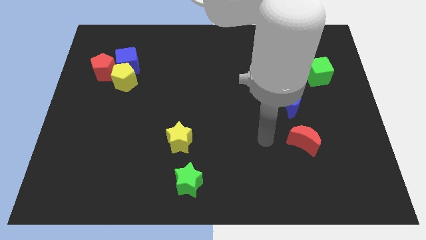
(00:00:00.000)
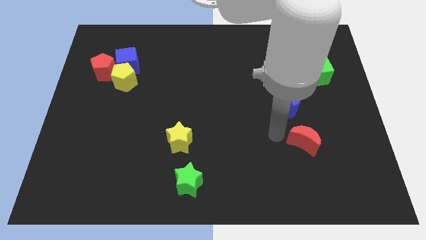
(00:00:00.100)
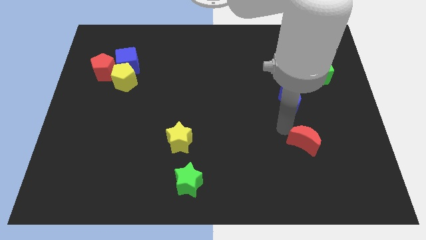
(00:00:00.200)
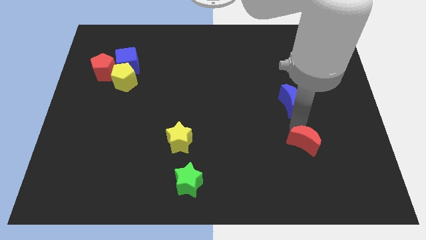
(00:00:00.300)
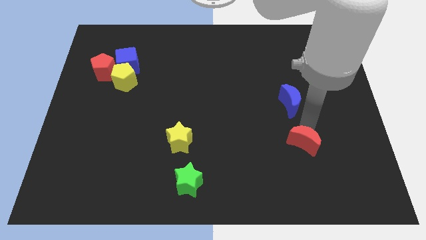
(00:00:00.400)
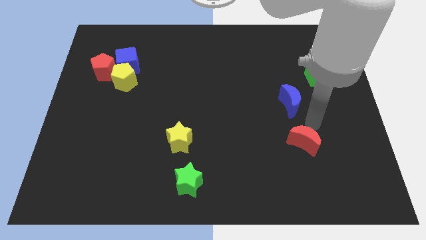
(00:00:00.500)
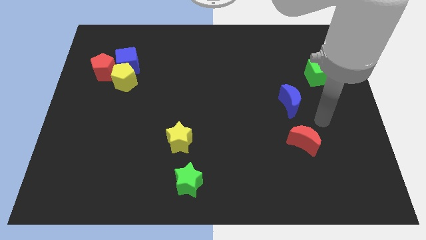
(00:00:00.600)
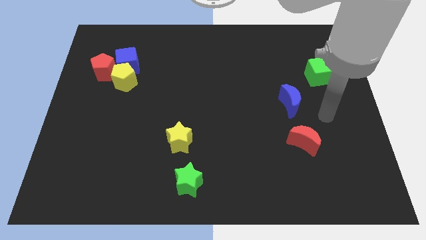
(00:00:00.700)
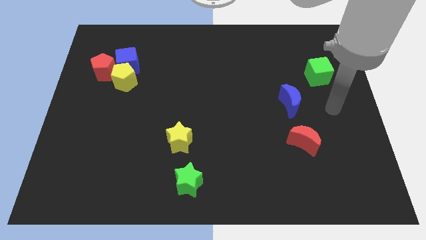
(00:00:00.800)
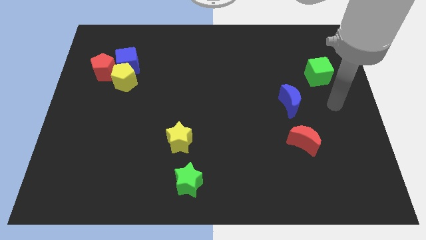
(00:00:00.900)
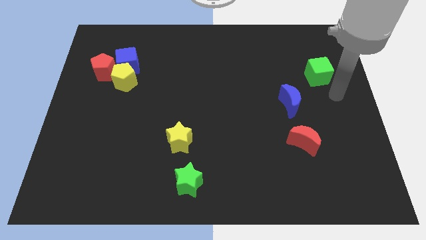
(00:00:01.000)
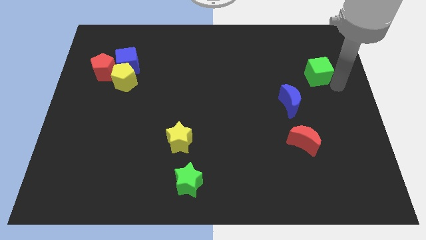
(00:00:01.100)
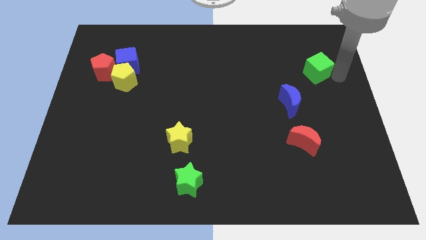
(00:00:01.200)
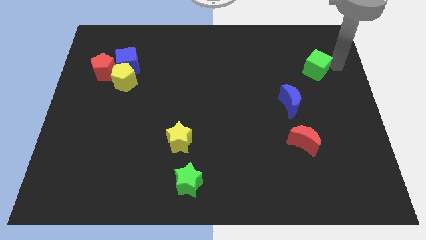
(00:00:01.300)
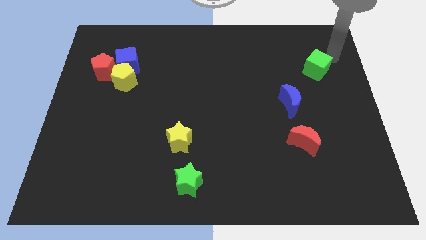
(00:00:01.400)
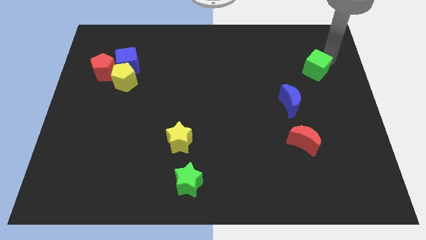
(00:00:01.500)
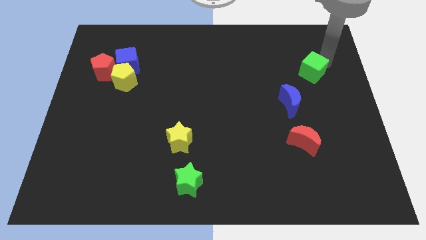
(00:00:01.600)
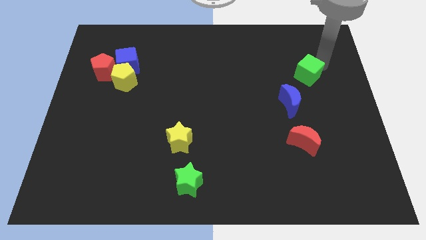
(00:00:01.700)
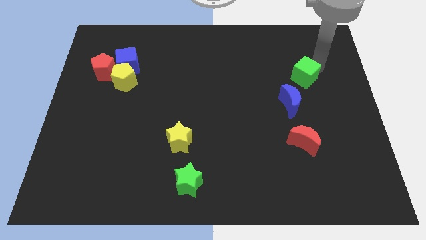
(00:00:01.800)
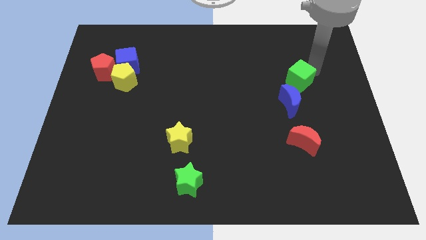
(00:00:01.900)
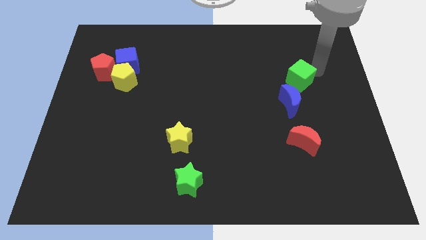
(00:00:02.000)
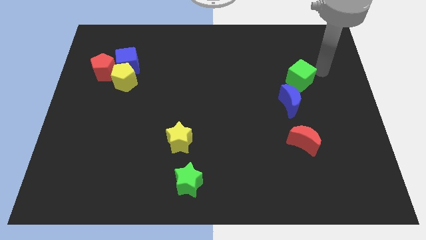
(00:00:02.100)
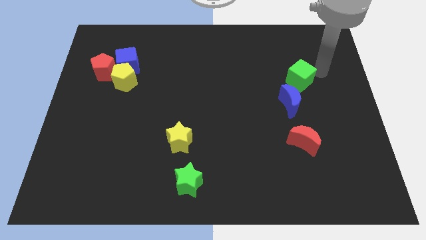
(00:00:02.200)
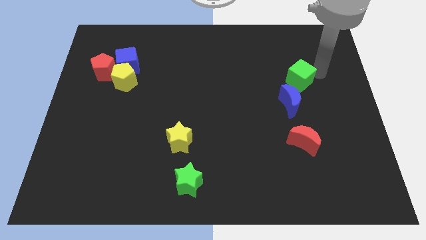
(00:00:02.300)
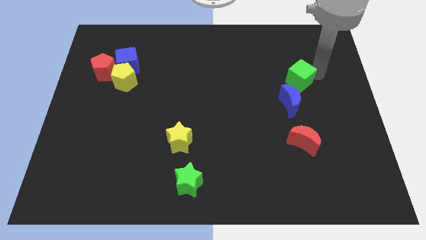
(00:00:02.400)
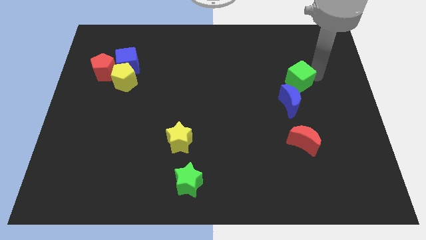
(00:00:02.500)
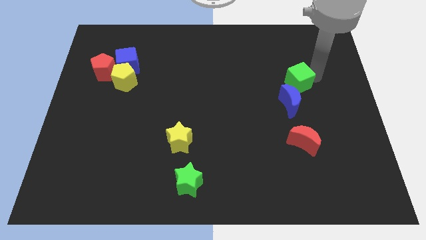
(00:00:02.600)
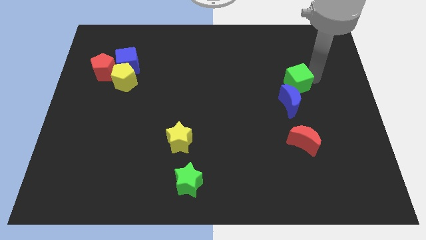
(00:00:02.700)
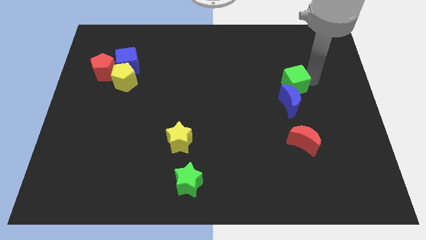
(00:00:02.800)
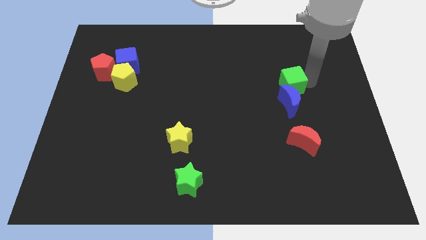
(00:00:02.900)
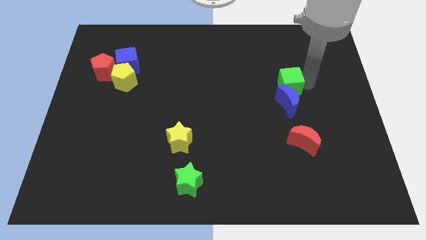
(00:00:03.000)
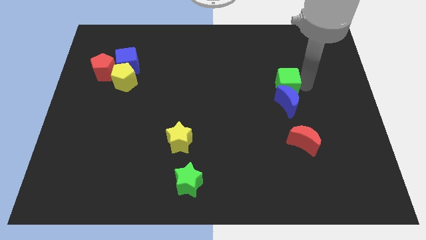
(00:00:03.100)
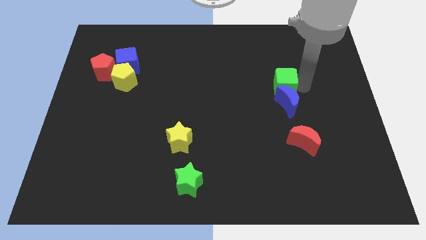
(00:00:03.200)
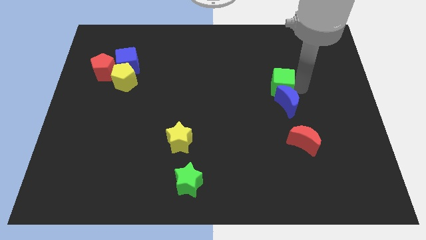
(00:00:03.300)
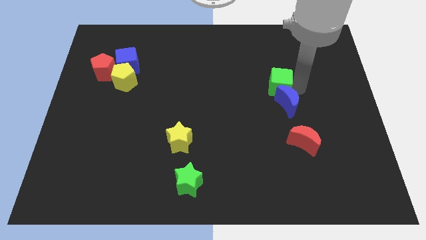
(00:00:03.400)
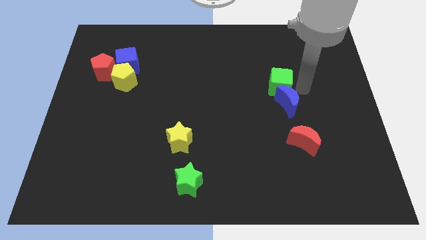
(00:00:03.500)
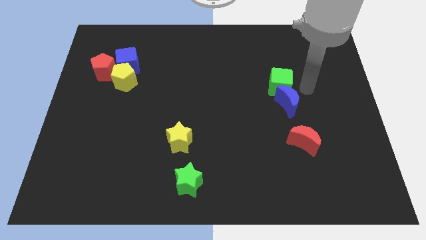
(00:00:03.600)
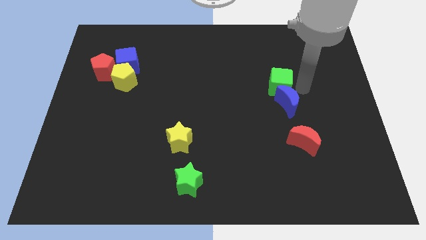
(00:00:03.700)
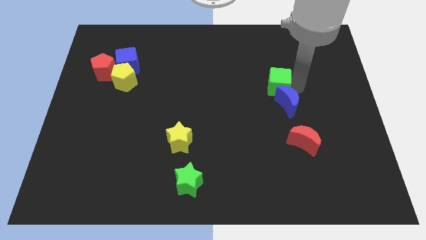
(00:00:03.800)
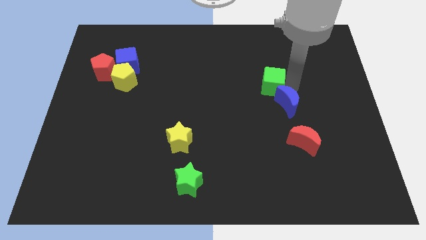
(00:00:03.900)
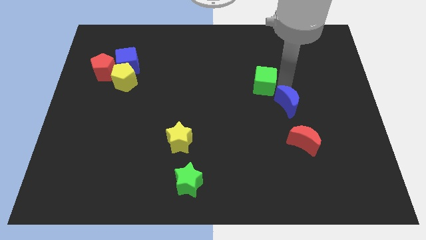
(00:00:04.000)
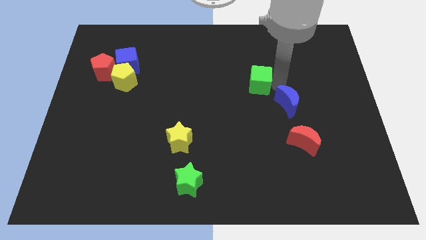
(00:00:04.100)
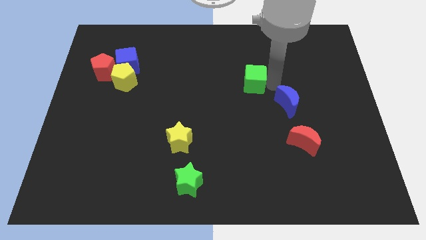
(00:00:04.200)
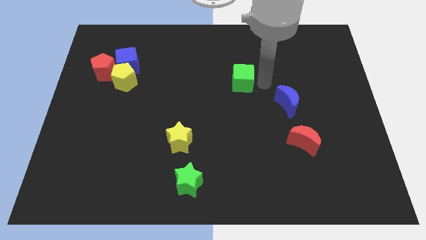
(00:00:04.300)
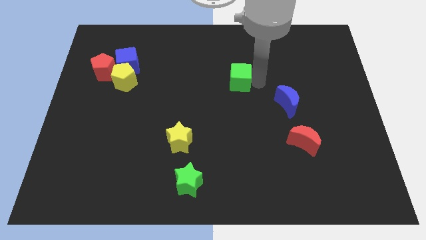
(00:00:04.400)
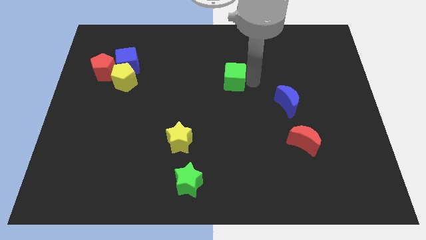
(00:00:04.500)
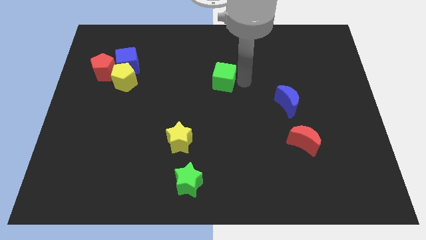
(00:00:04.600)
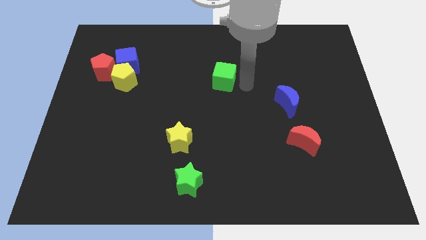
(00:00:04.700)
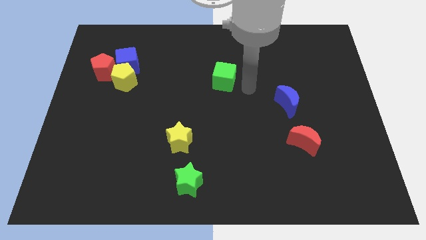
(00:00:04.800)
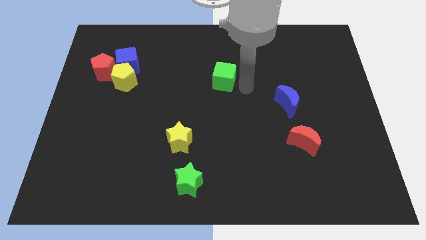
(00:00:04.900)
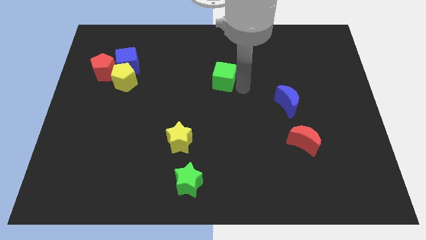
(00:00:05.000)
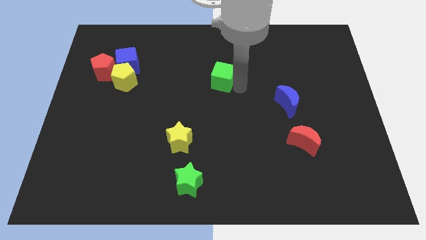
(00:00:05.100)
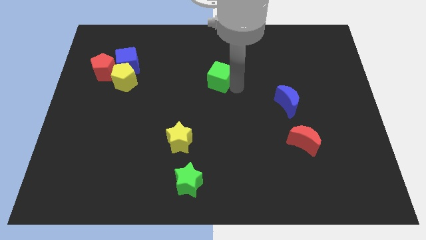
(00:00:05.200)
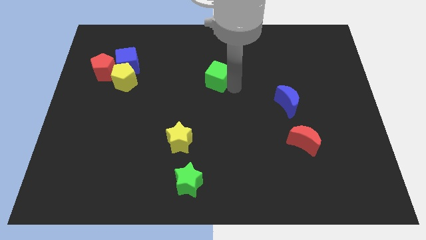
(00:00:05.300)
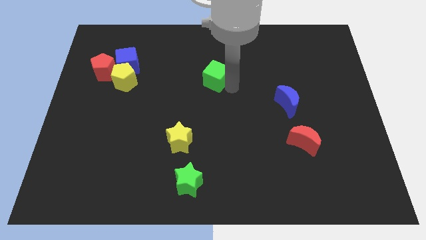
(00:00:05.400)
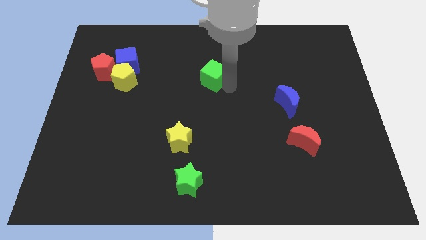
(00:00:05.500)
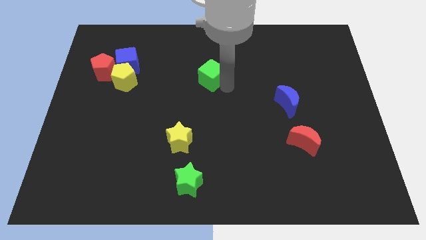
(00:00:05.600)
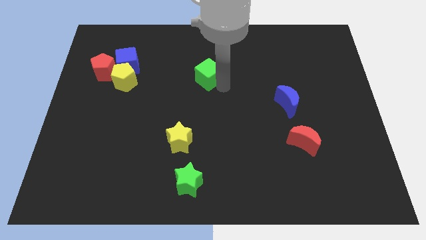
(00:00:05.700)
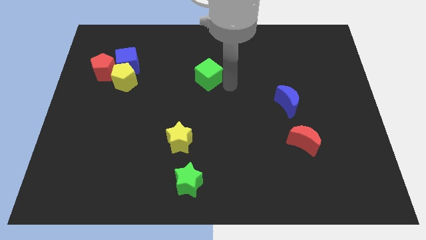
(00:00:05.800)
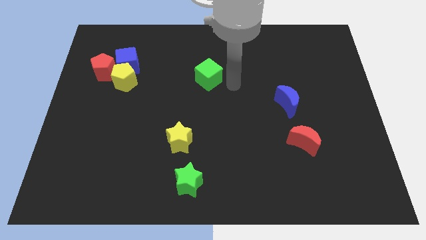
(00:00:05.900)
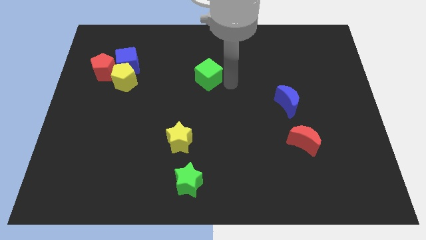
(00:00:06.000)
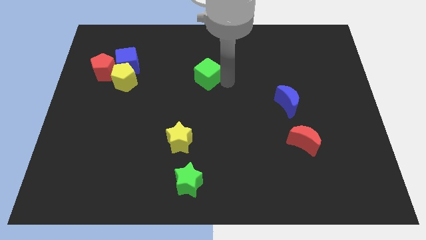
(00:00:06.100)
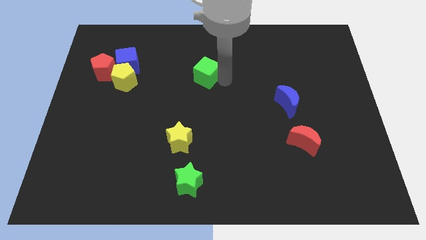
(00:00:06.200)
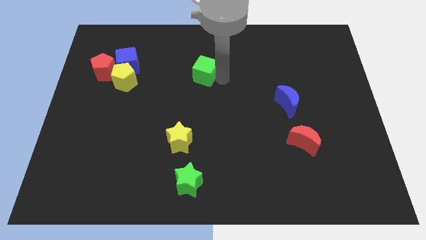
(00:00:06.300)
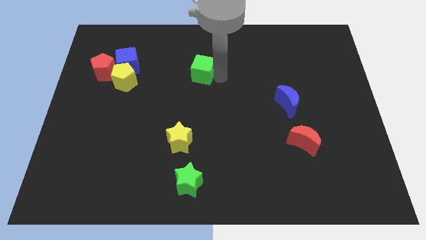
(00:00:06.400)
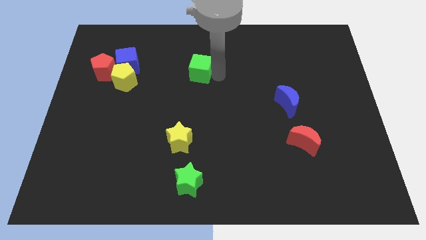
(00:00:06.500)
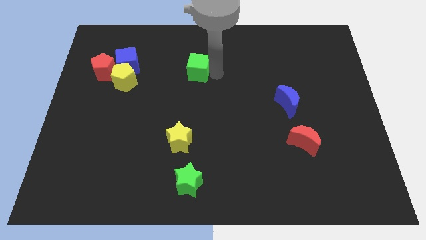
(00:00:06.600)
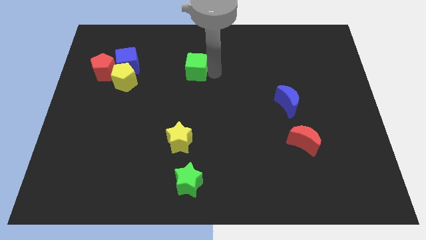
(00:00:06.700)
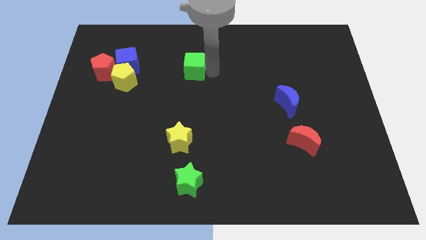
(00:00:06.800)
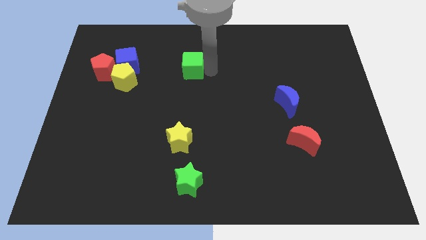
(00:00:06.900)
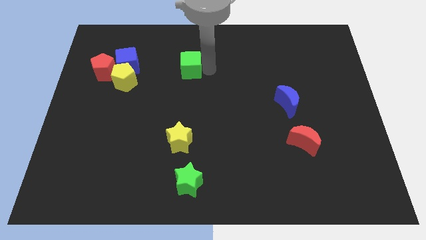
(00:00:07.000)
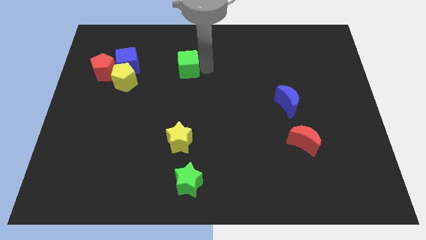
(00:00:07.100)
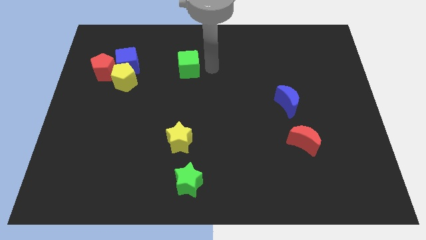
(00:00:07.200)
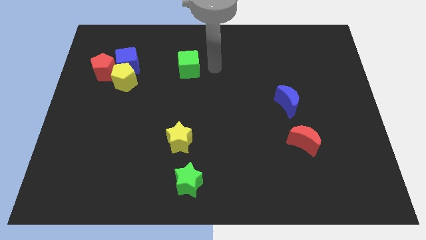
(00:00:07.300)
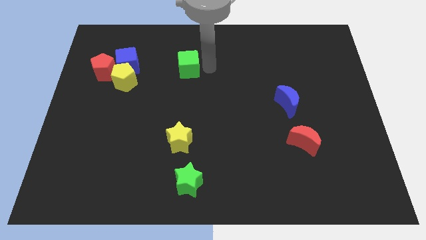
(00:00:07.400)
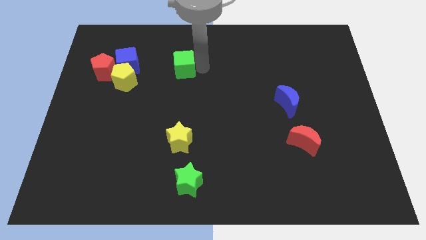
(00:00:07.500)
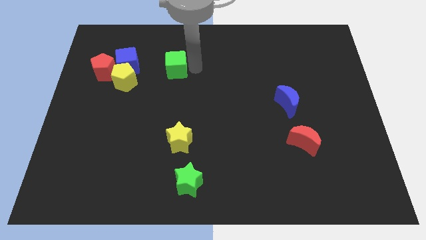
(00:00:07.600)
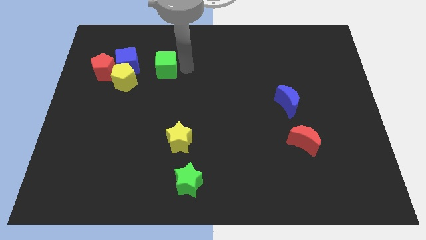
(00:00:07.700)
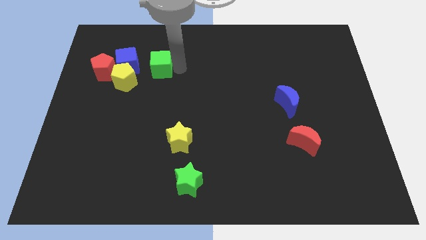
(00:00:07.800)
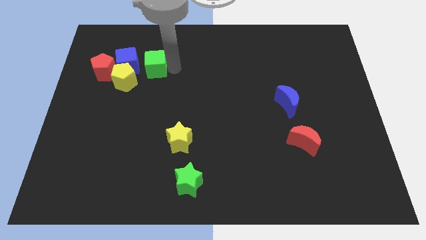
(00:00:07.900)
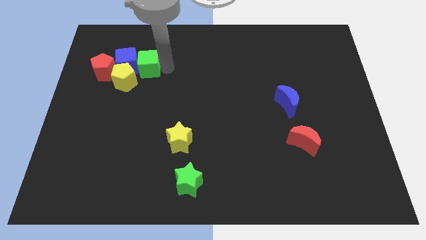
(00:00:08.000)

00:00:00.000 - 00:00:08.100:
slide the green cube next to the blue cube
